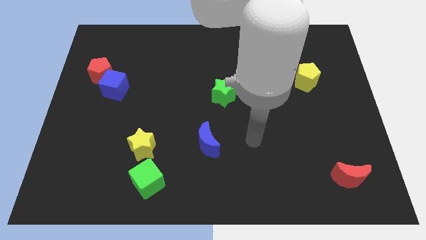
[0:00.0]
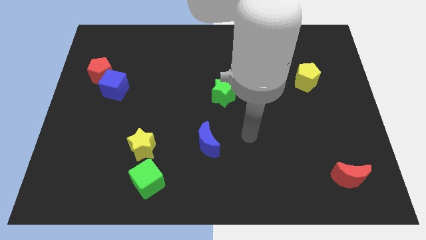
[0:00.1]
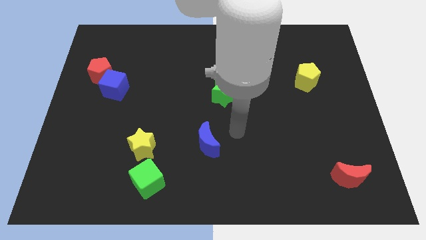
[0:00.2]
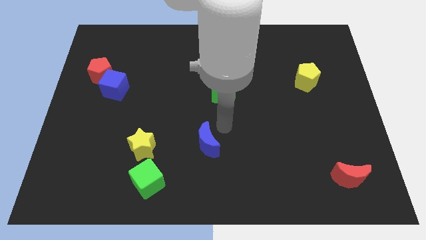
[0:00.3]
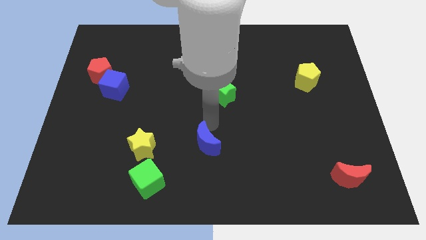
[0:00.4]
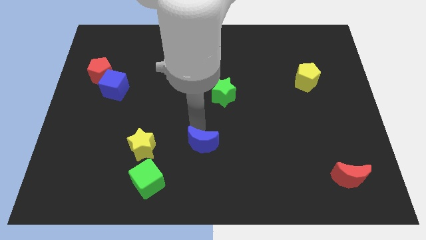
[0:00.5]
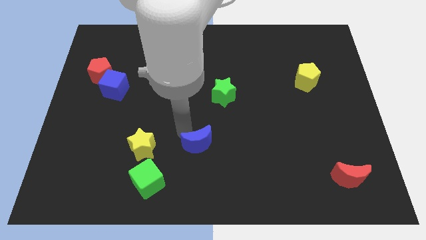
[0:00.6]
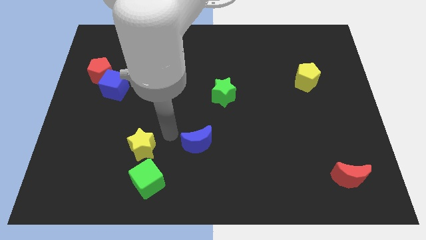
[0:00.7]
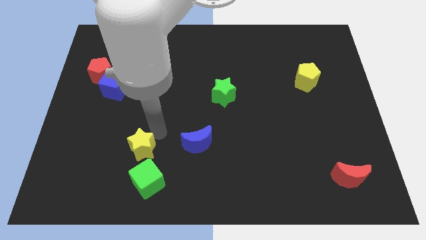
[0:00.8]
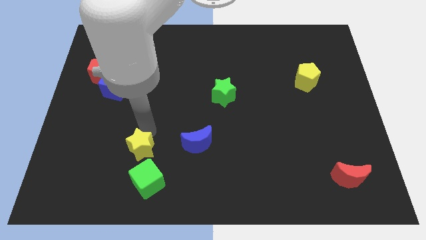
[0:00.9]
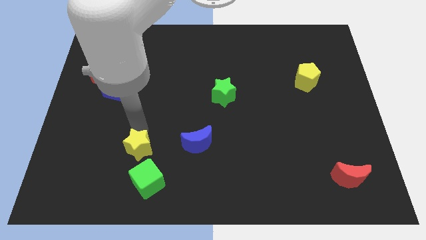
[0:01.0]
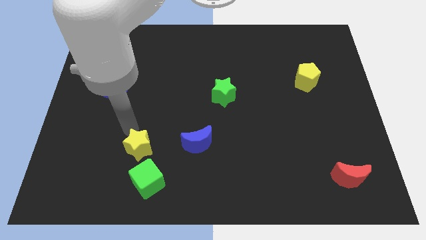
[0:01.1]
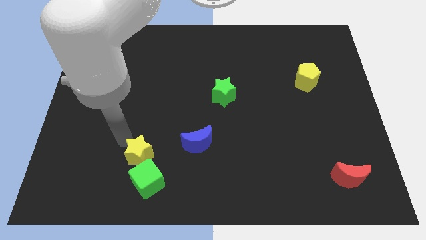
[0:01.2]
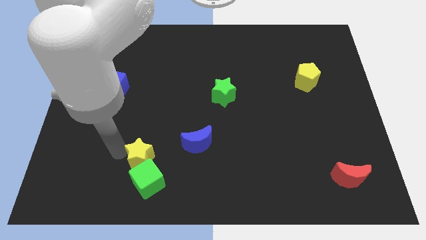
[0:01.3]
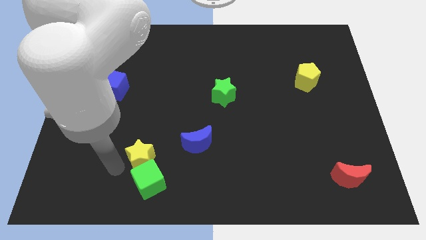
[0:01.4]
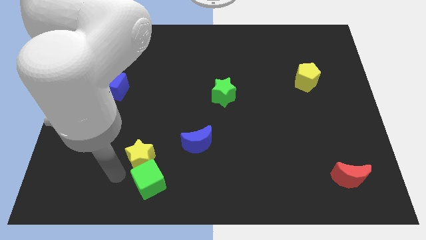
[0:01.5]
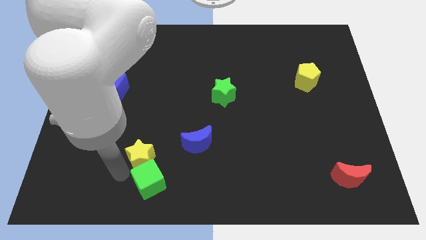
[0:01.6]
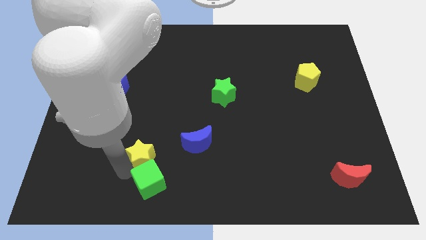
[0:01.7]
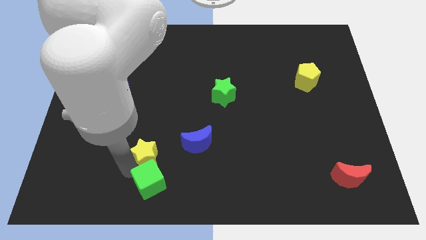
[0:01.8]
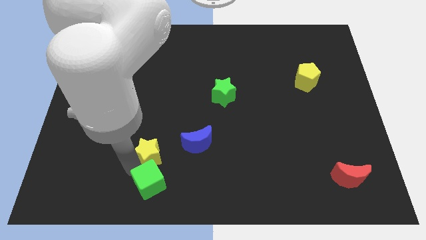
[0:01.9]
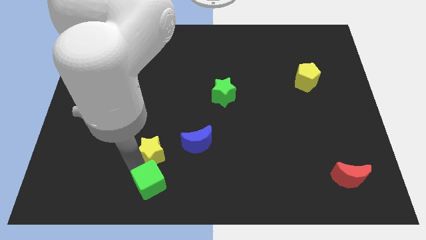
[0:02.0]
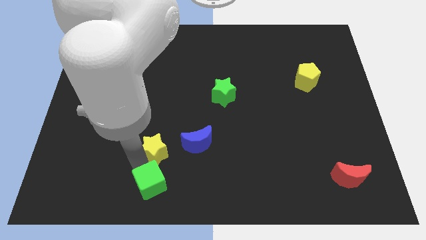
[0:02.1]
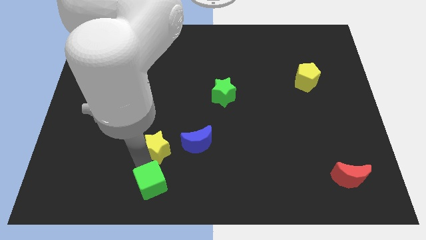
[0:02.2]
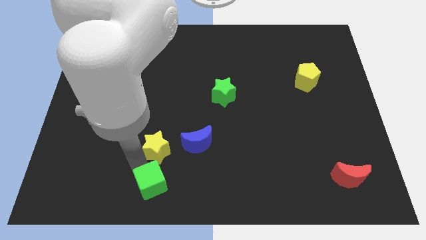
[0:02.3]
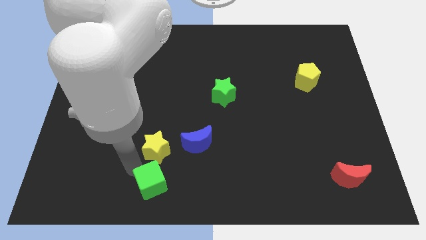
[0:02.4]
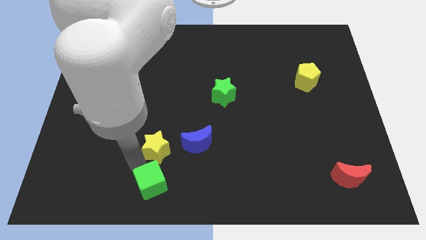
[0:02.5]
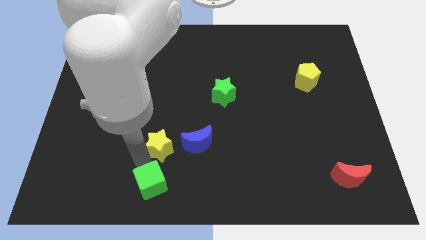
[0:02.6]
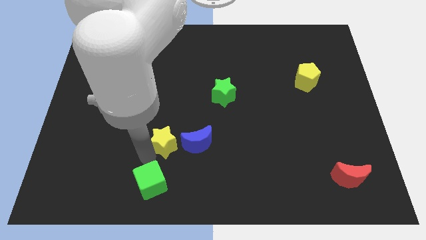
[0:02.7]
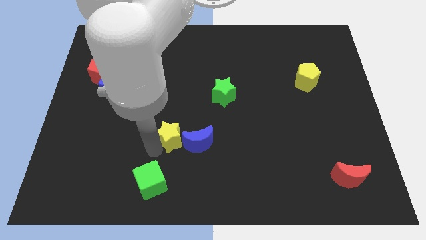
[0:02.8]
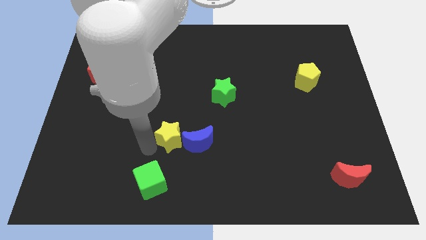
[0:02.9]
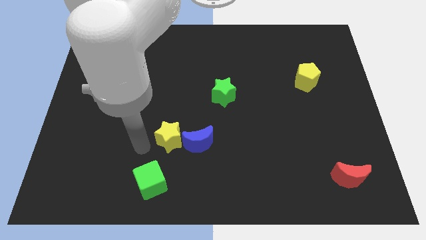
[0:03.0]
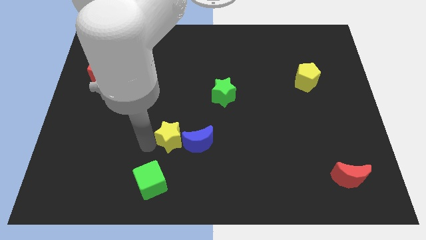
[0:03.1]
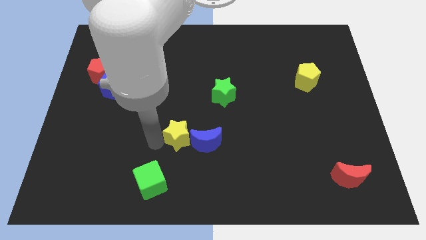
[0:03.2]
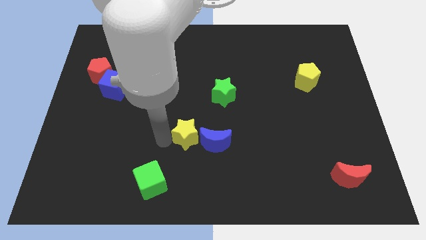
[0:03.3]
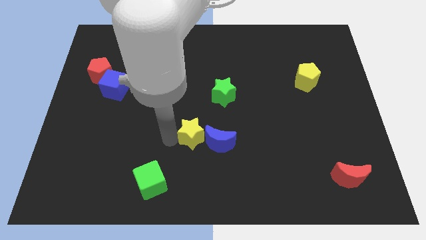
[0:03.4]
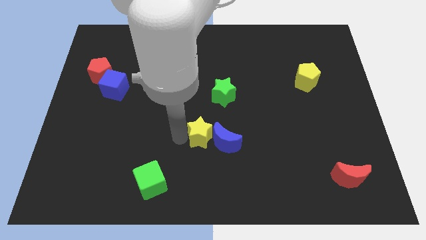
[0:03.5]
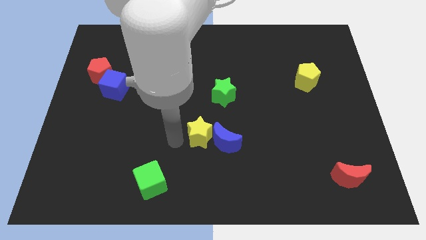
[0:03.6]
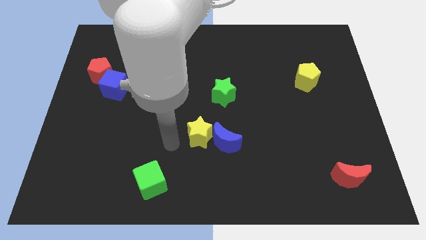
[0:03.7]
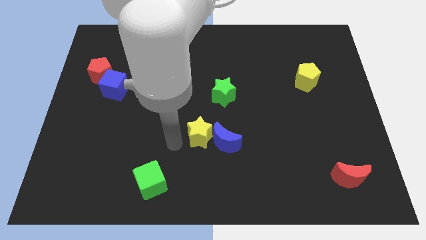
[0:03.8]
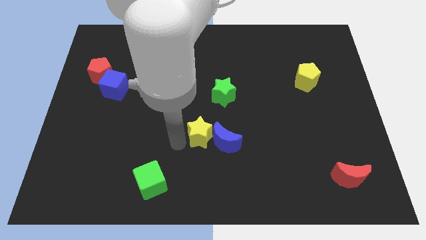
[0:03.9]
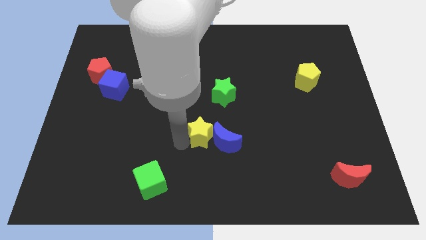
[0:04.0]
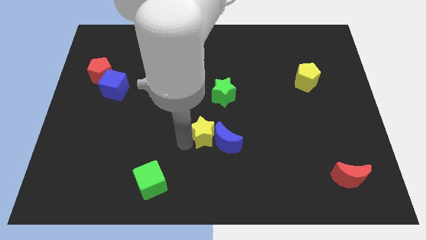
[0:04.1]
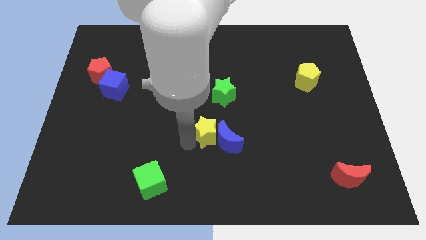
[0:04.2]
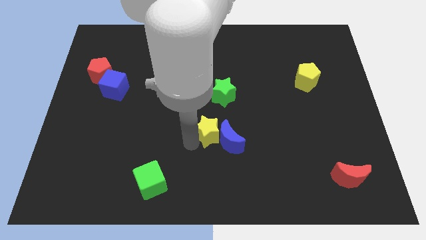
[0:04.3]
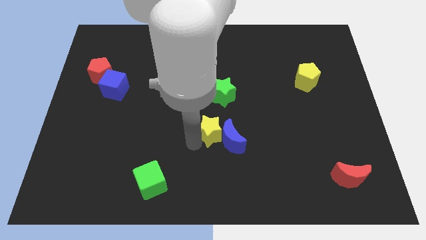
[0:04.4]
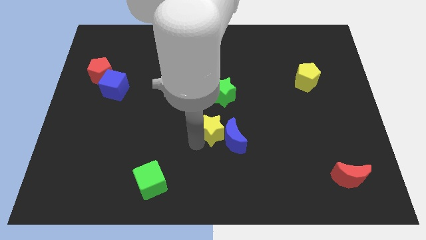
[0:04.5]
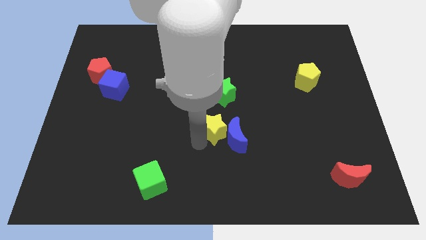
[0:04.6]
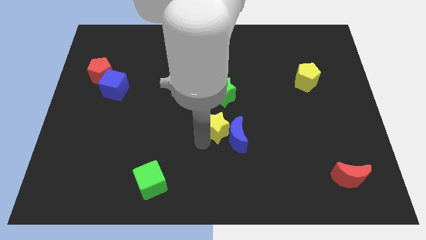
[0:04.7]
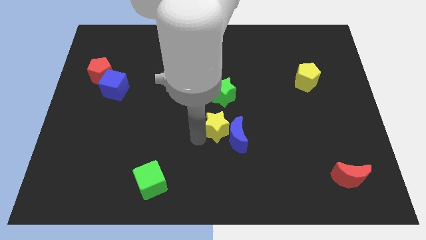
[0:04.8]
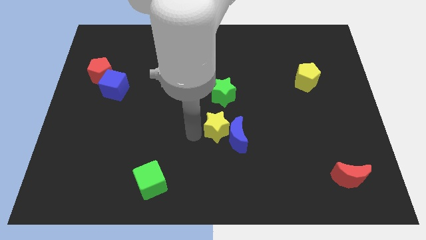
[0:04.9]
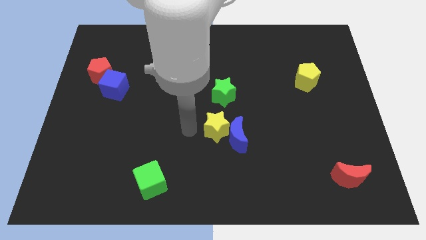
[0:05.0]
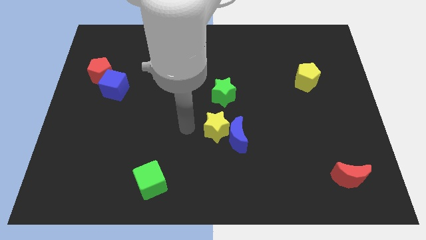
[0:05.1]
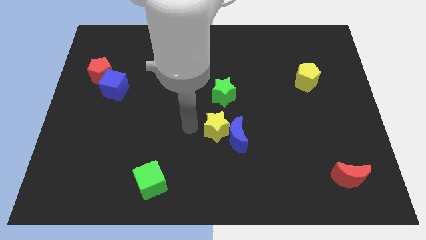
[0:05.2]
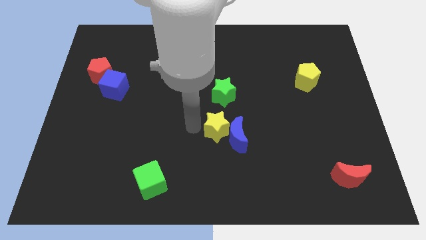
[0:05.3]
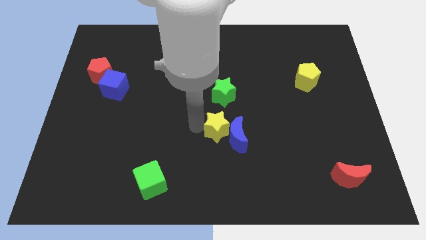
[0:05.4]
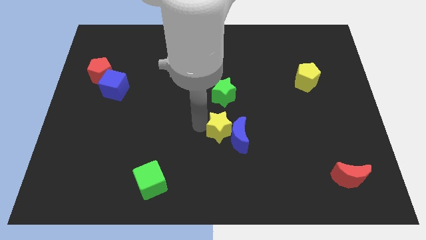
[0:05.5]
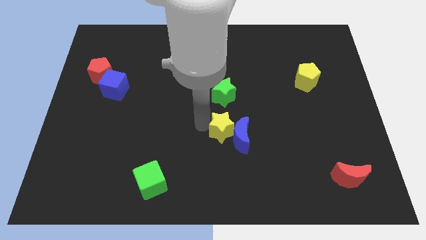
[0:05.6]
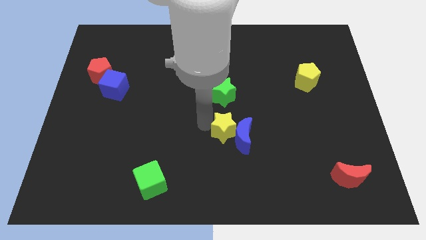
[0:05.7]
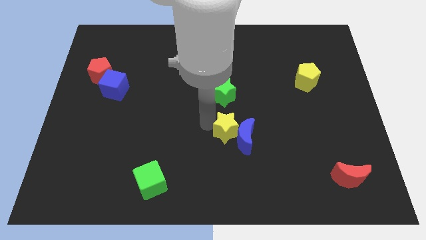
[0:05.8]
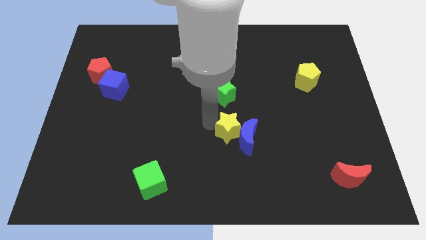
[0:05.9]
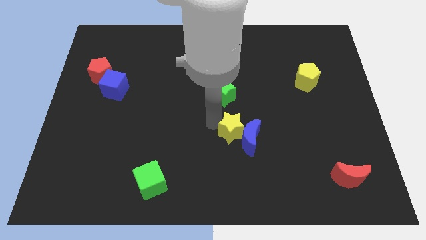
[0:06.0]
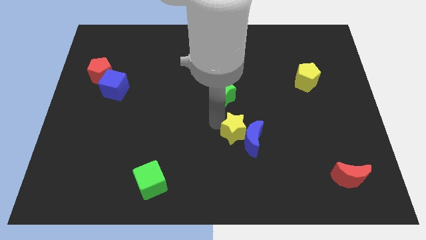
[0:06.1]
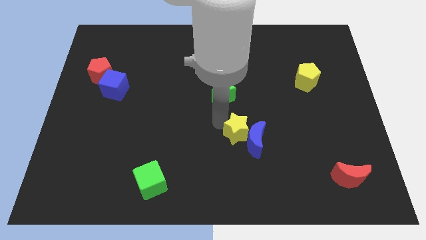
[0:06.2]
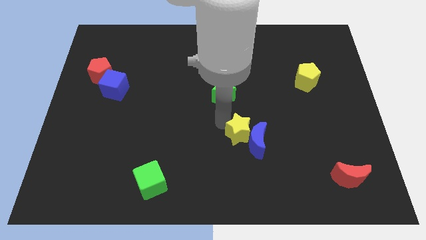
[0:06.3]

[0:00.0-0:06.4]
move the yellow star to the right

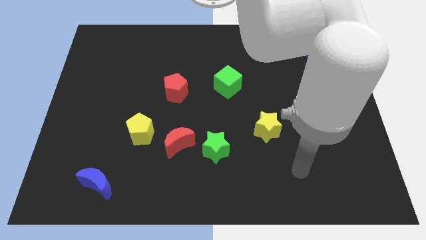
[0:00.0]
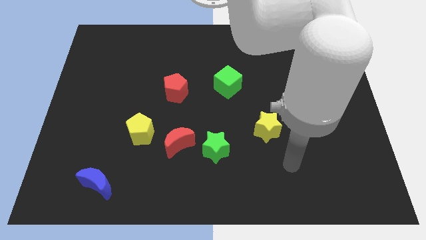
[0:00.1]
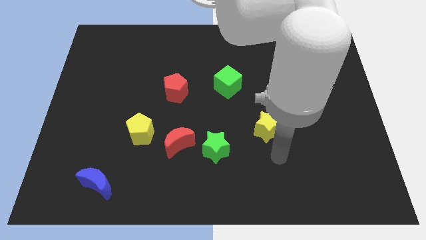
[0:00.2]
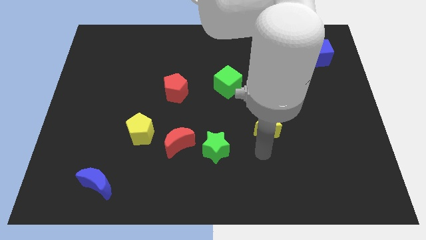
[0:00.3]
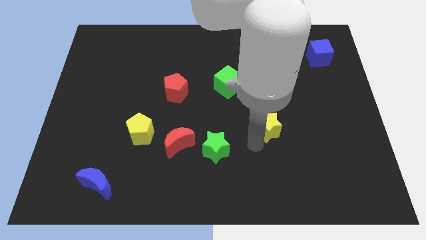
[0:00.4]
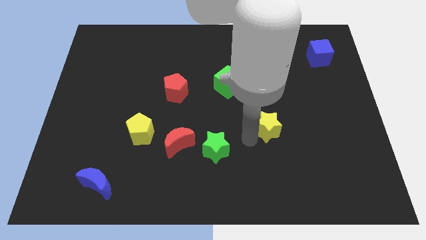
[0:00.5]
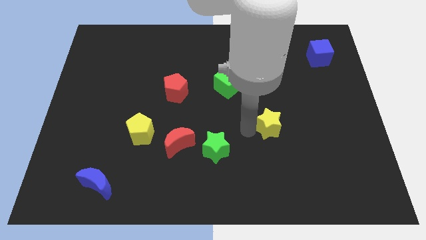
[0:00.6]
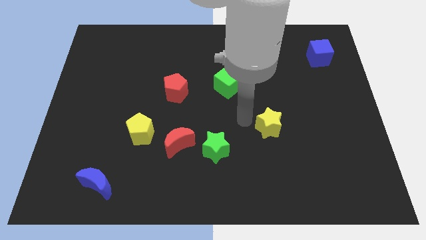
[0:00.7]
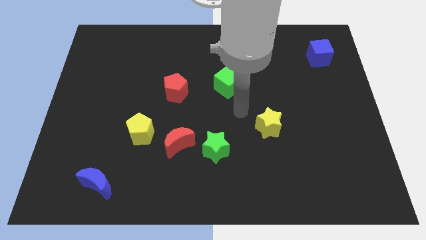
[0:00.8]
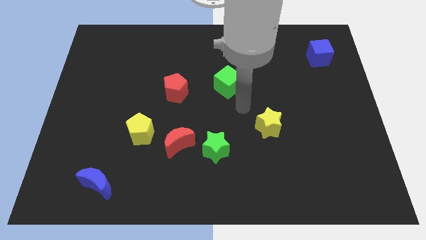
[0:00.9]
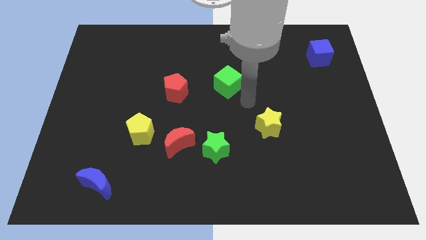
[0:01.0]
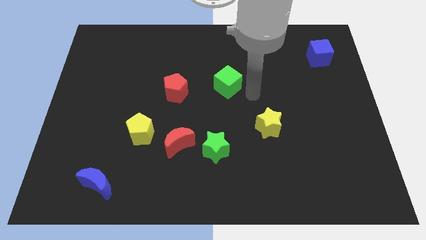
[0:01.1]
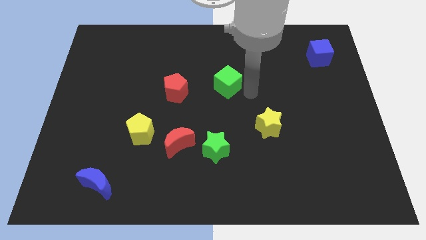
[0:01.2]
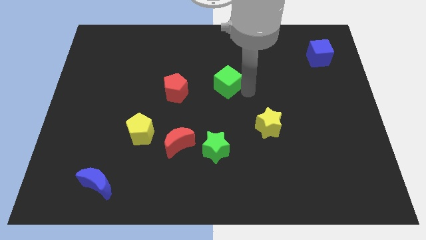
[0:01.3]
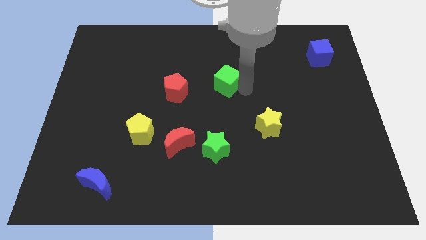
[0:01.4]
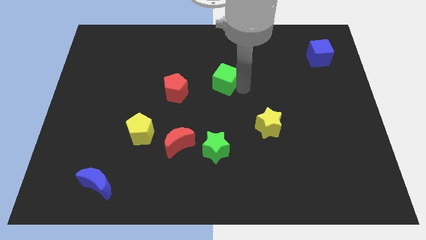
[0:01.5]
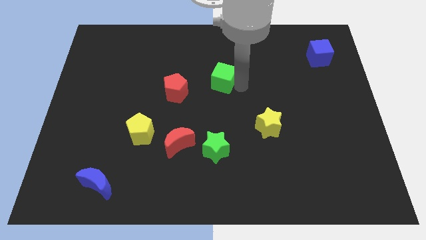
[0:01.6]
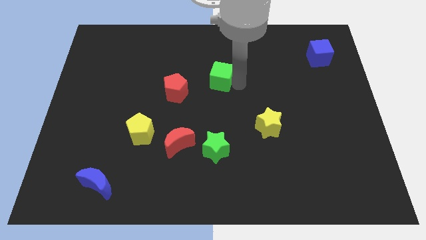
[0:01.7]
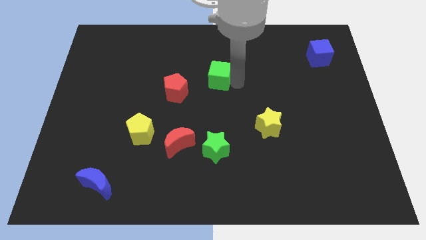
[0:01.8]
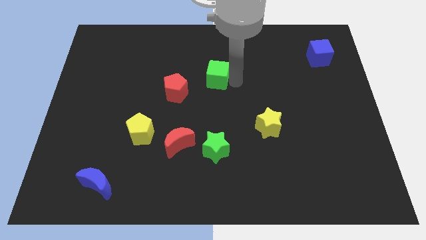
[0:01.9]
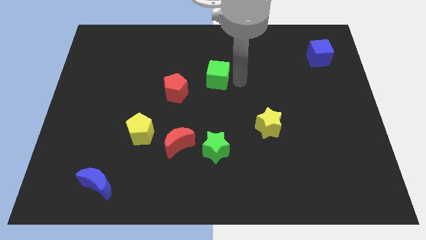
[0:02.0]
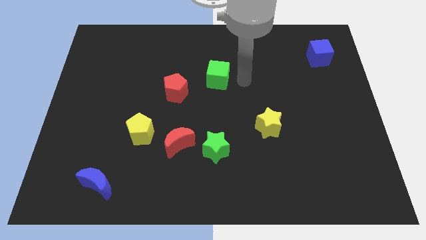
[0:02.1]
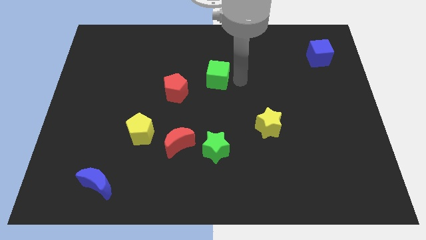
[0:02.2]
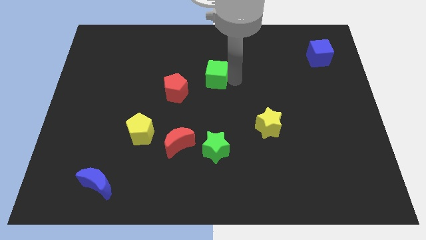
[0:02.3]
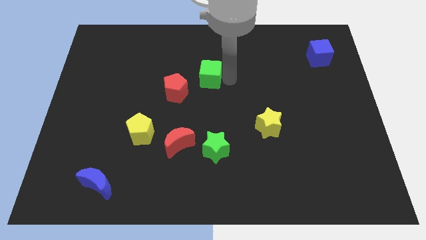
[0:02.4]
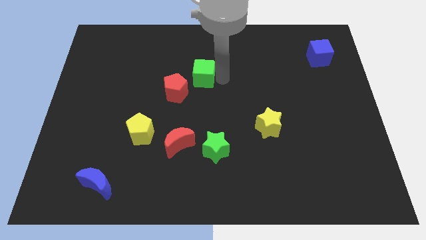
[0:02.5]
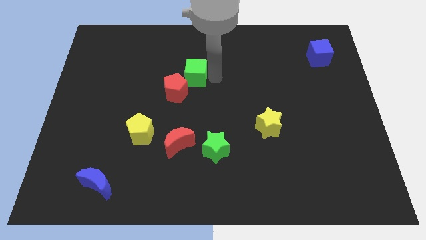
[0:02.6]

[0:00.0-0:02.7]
slide the green cube left somewhat
